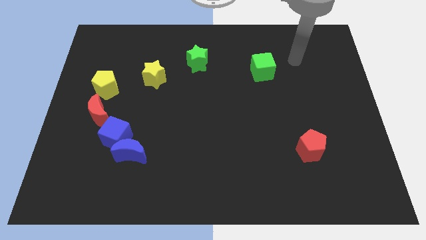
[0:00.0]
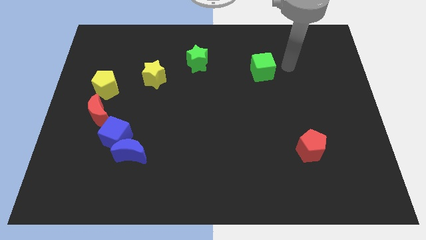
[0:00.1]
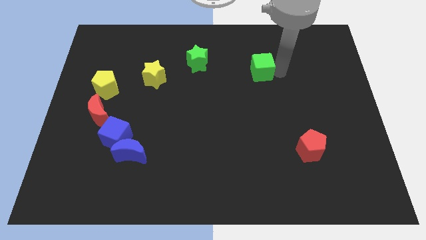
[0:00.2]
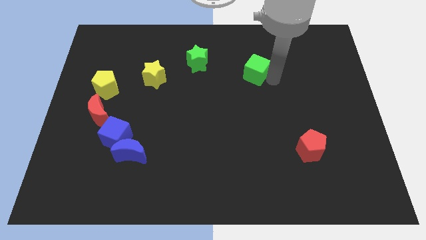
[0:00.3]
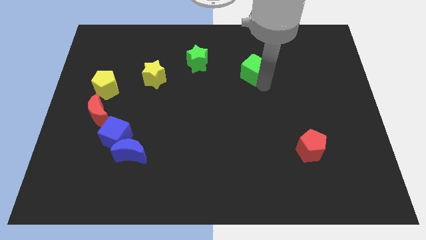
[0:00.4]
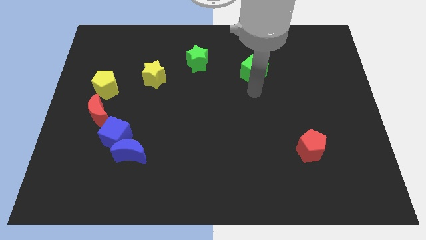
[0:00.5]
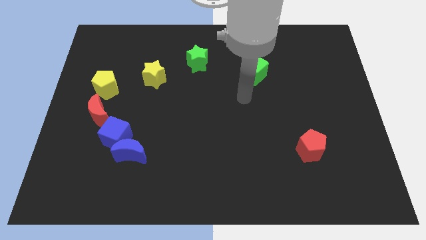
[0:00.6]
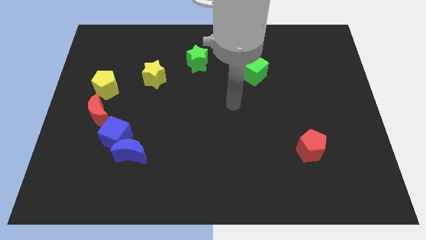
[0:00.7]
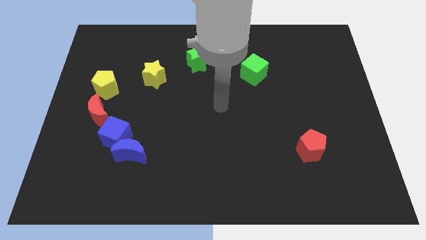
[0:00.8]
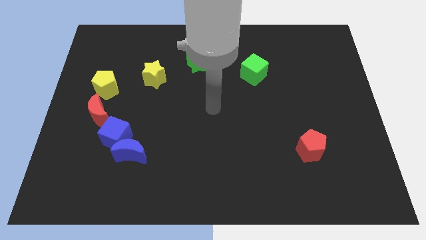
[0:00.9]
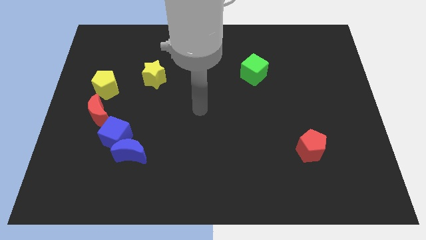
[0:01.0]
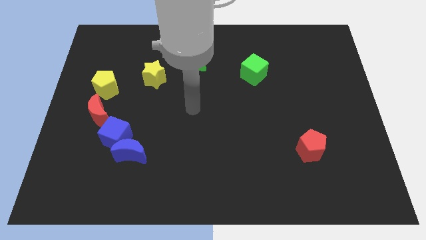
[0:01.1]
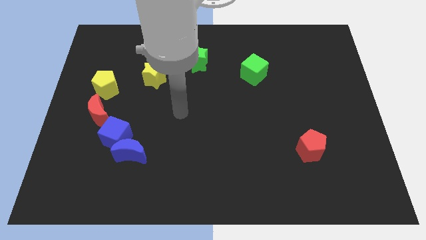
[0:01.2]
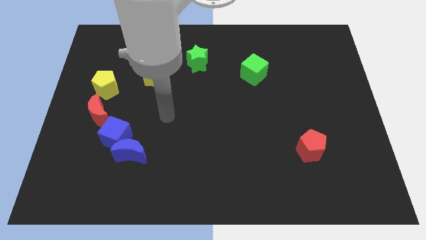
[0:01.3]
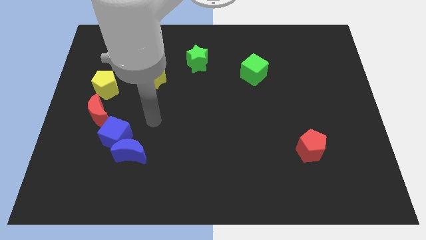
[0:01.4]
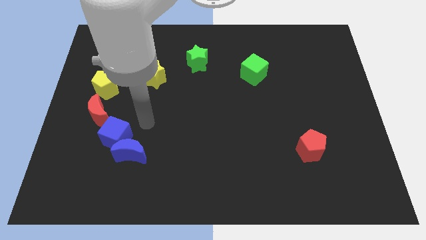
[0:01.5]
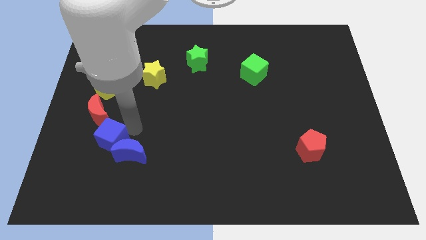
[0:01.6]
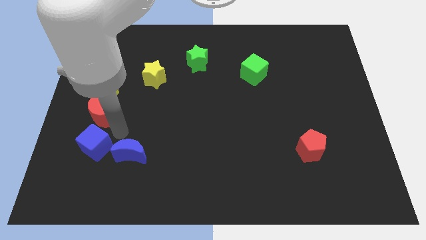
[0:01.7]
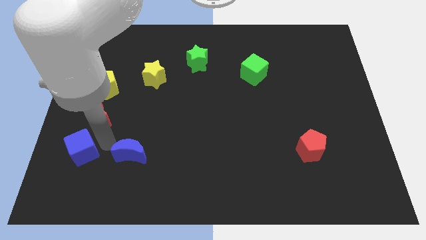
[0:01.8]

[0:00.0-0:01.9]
move the blue moon away from the blue cube

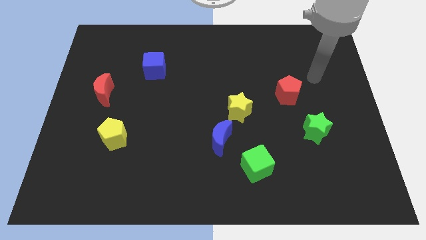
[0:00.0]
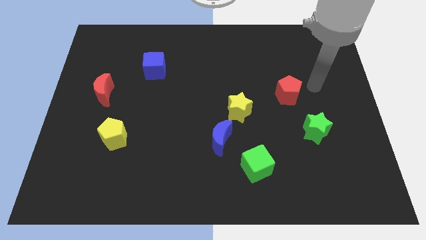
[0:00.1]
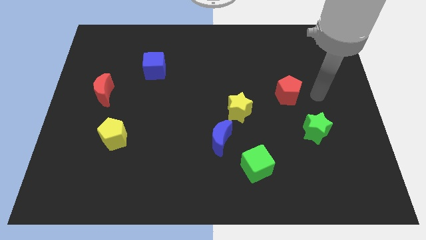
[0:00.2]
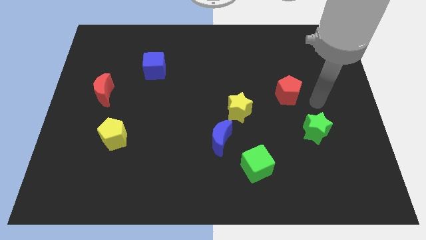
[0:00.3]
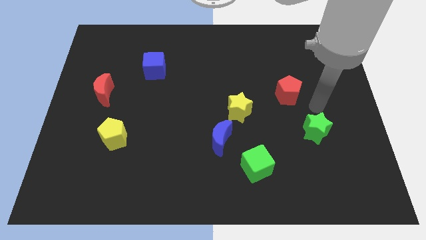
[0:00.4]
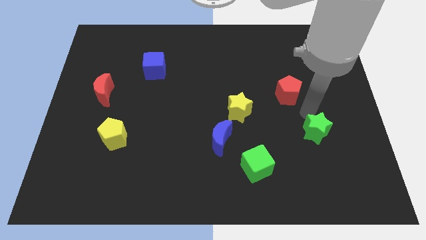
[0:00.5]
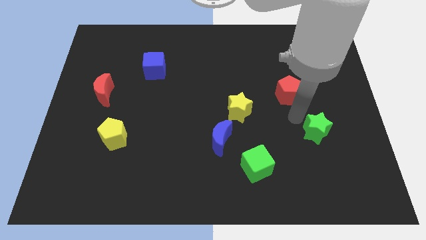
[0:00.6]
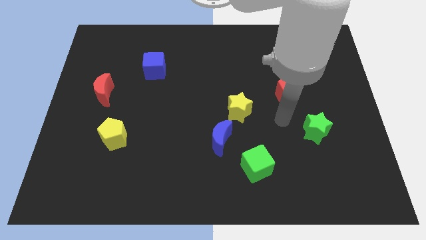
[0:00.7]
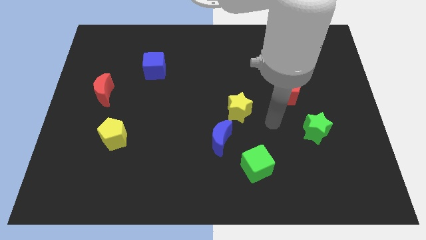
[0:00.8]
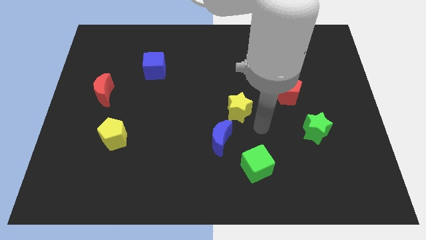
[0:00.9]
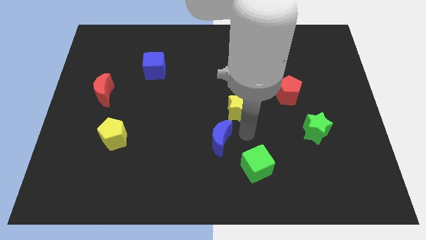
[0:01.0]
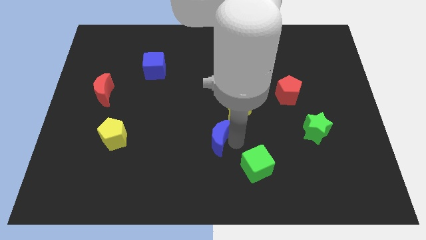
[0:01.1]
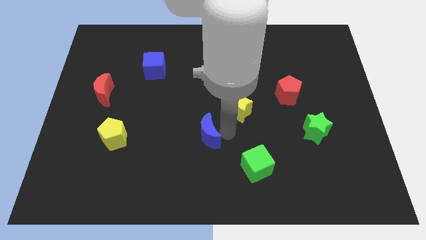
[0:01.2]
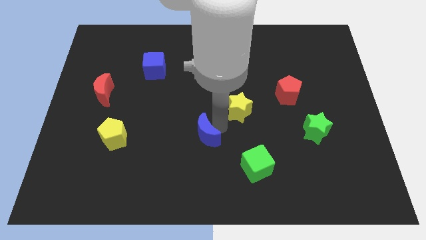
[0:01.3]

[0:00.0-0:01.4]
move the yellow star away from the blue moon

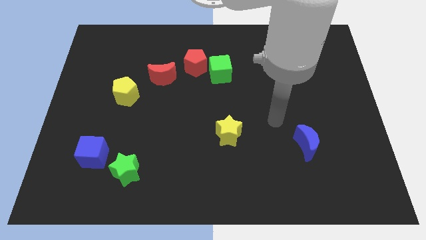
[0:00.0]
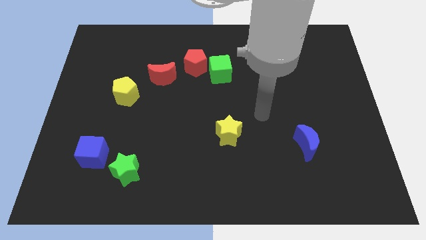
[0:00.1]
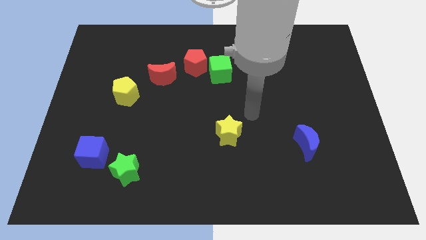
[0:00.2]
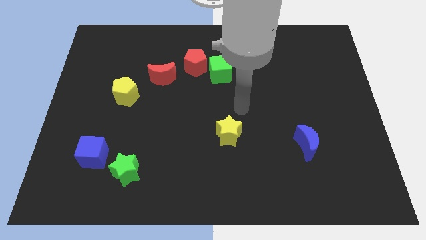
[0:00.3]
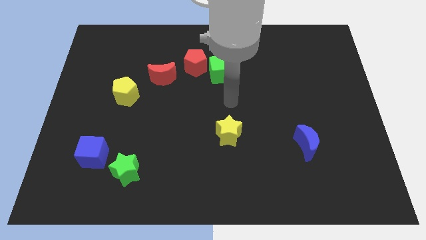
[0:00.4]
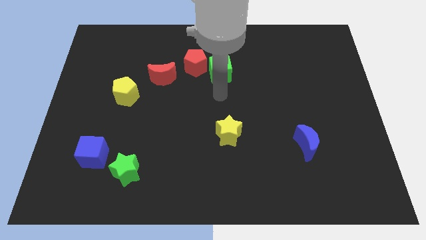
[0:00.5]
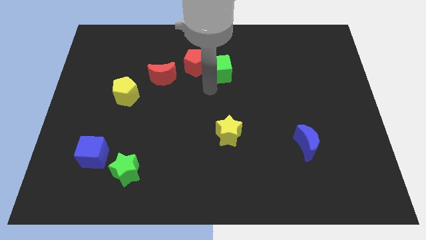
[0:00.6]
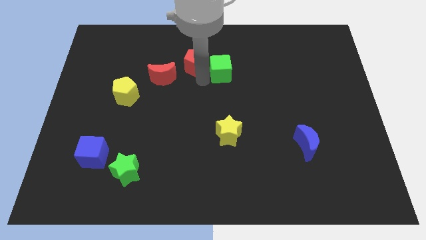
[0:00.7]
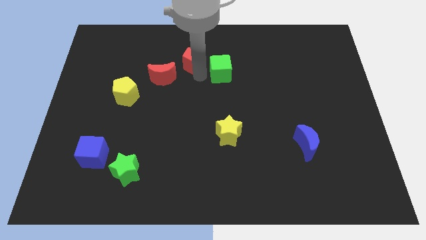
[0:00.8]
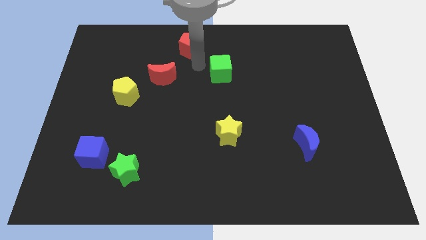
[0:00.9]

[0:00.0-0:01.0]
separate the green cube from the red pentagon

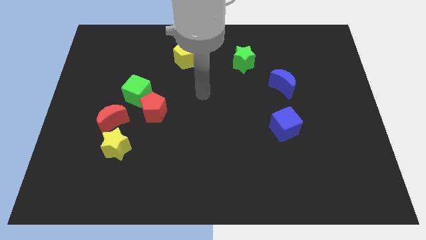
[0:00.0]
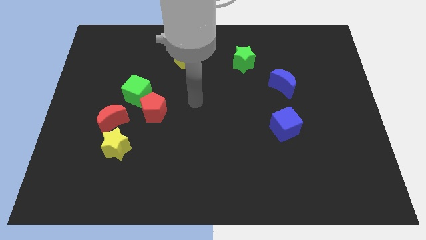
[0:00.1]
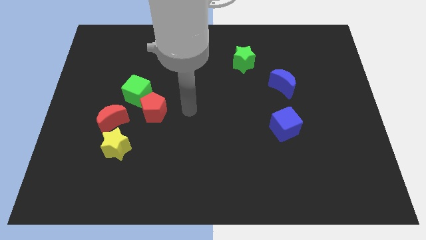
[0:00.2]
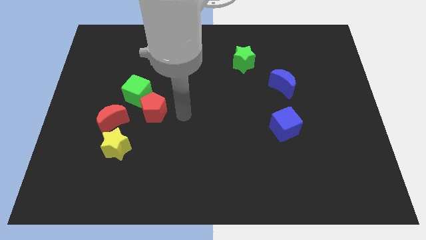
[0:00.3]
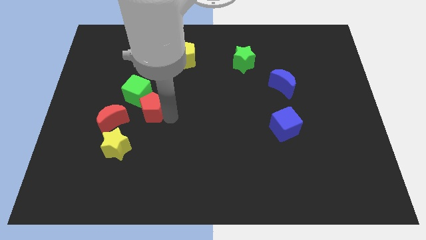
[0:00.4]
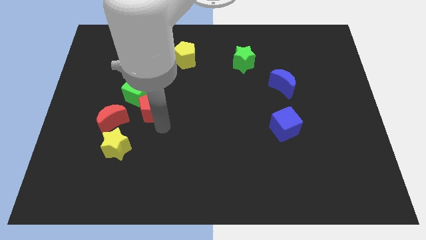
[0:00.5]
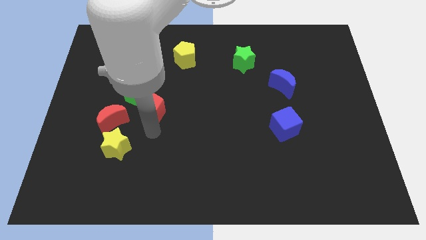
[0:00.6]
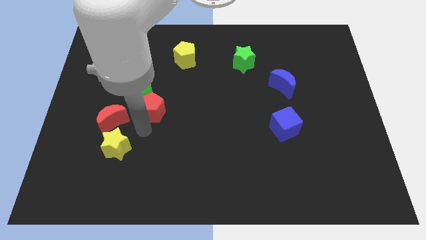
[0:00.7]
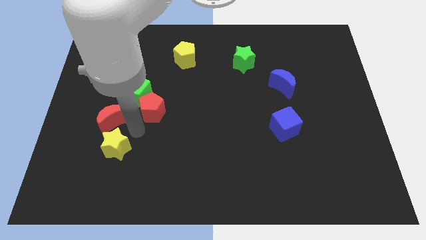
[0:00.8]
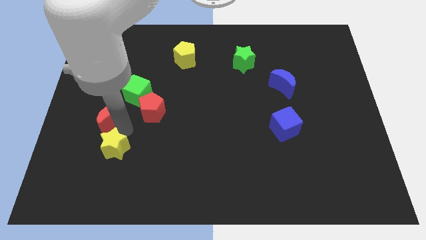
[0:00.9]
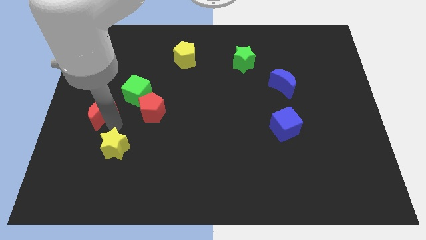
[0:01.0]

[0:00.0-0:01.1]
separate the yellow star from the red moon

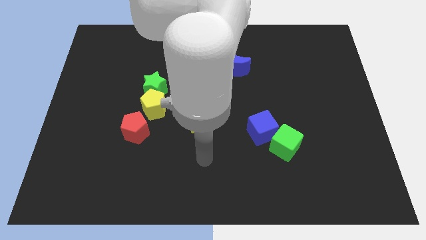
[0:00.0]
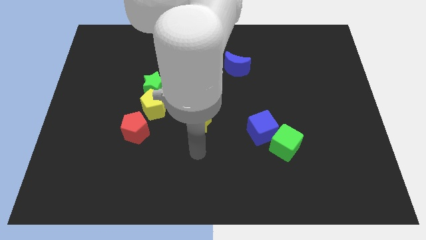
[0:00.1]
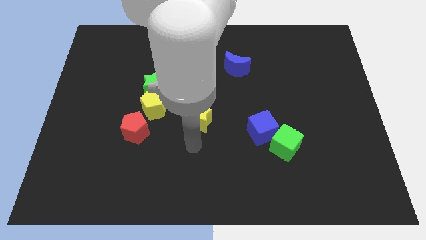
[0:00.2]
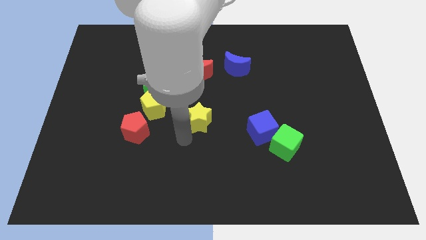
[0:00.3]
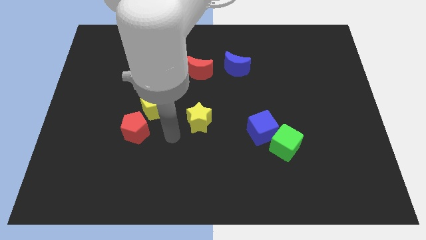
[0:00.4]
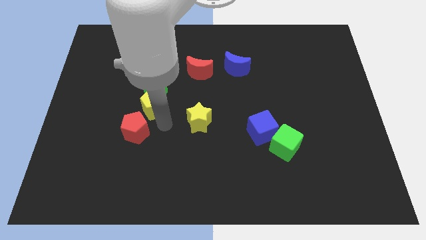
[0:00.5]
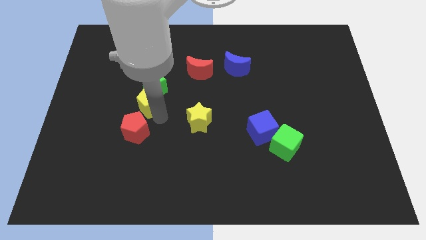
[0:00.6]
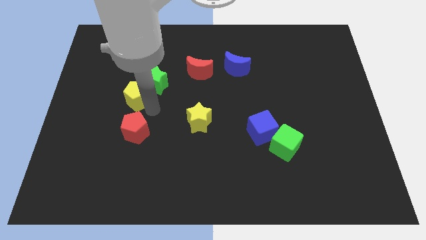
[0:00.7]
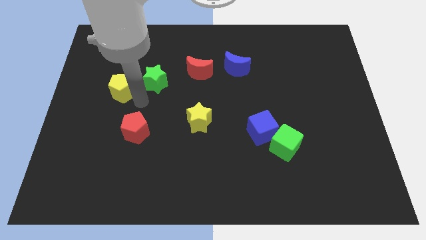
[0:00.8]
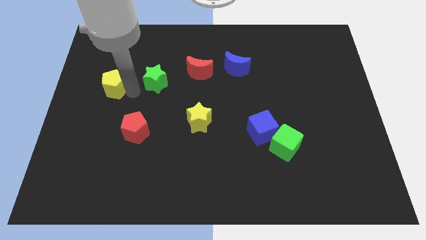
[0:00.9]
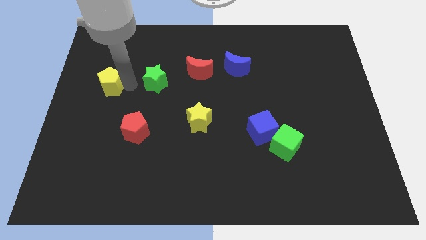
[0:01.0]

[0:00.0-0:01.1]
move the green star away from the yellow pentagon

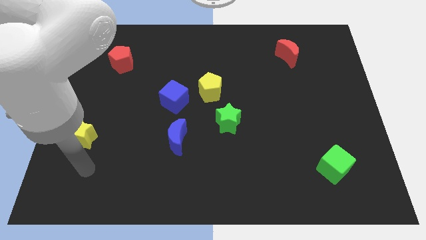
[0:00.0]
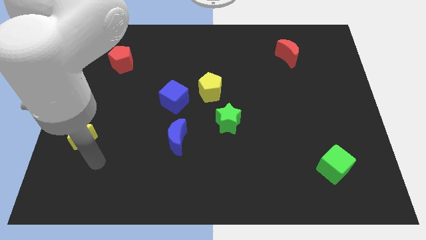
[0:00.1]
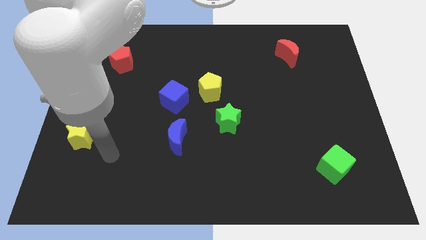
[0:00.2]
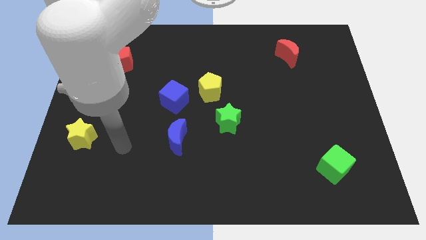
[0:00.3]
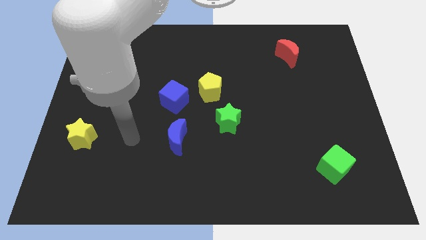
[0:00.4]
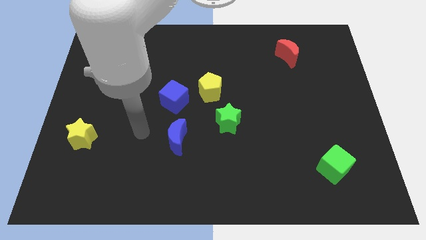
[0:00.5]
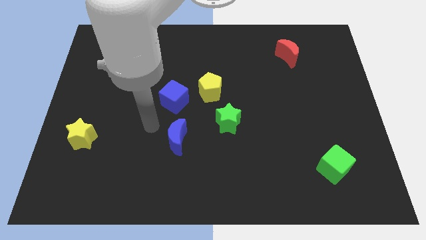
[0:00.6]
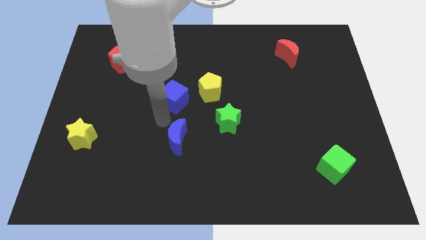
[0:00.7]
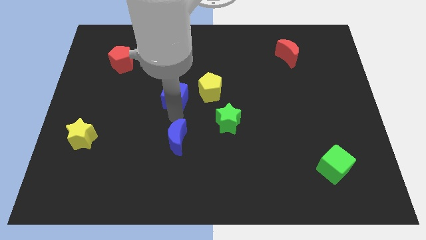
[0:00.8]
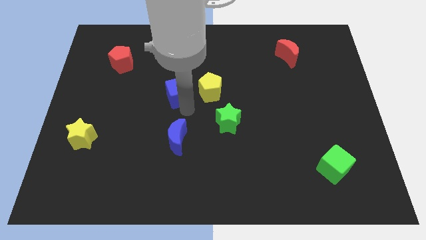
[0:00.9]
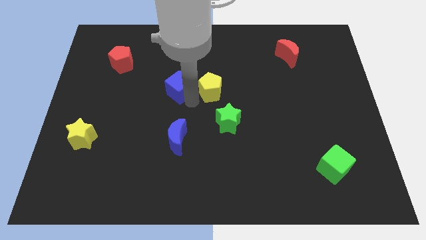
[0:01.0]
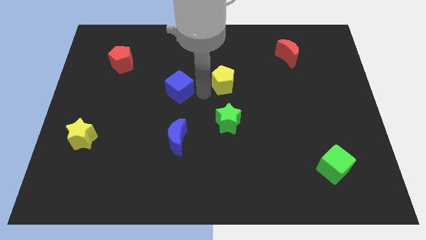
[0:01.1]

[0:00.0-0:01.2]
move the blue cube away from the yellow pentagon

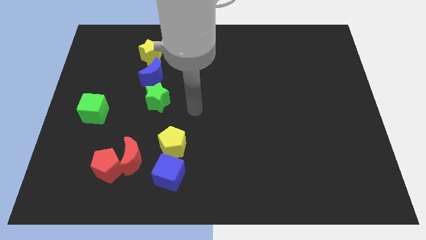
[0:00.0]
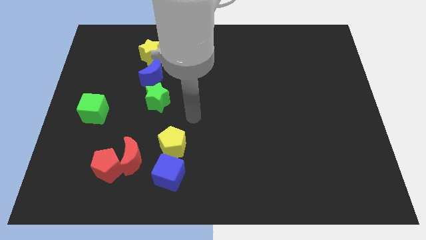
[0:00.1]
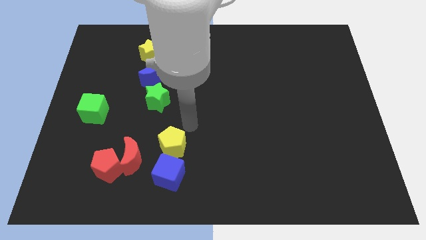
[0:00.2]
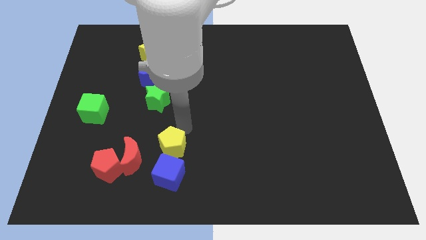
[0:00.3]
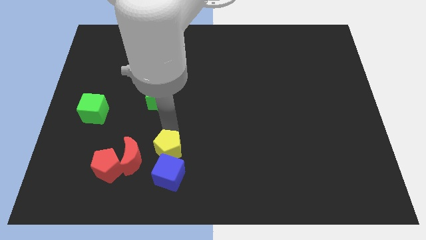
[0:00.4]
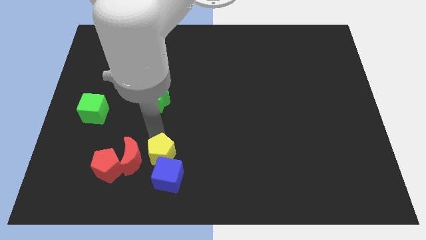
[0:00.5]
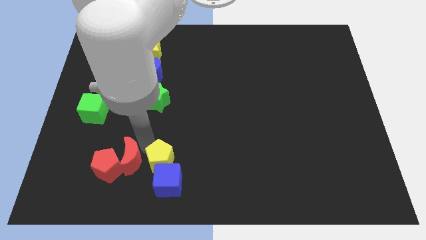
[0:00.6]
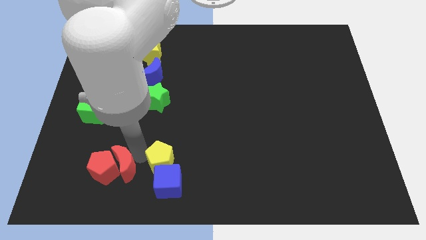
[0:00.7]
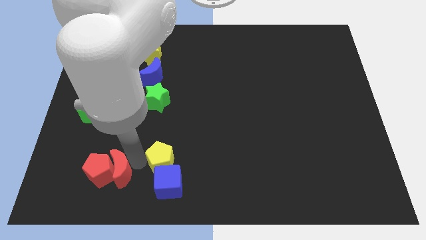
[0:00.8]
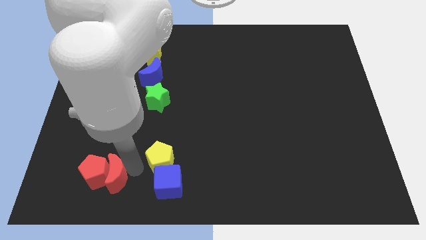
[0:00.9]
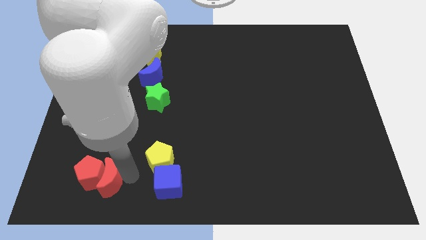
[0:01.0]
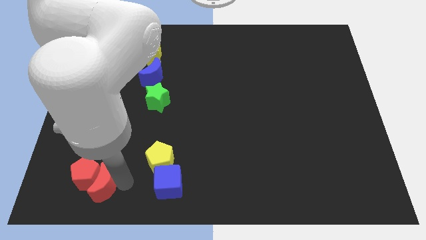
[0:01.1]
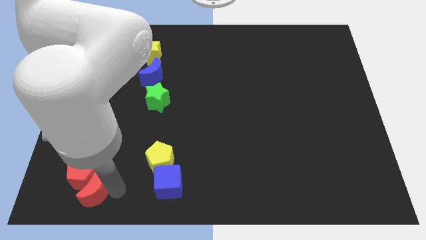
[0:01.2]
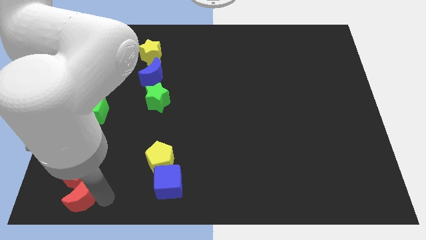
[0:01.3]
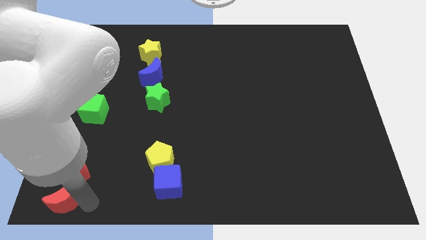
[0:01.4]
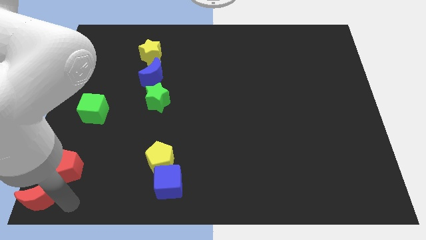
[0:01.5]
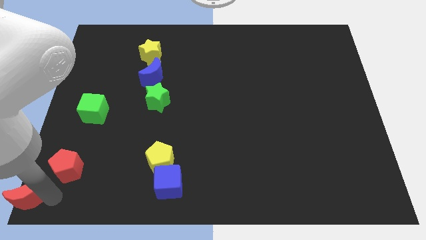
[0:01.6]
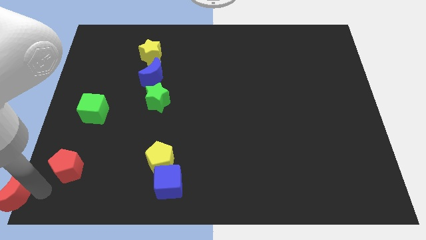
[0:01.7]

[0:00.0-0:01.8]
separate the red pentagon from the red moon
